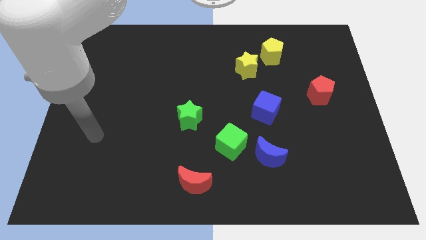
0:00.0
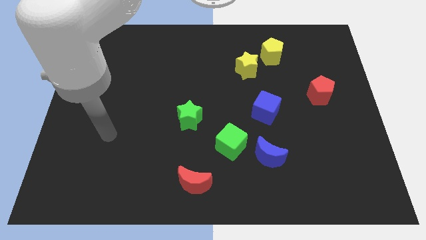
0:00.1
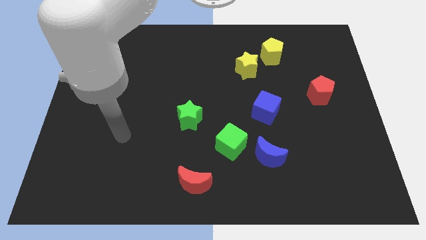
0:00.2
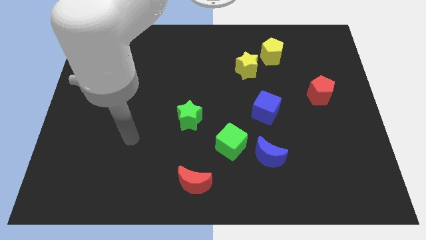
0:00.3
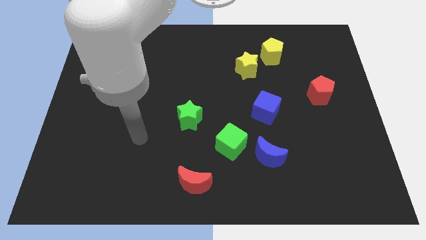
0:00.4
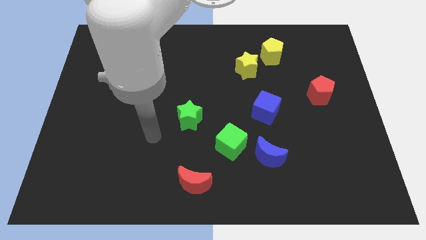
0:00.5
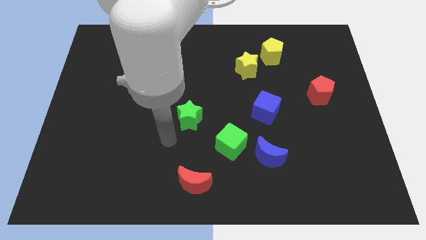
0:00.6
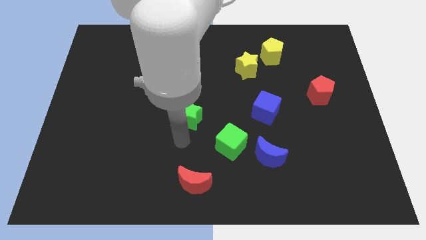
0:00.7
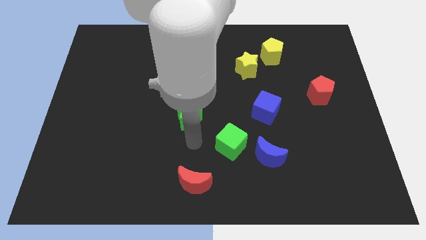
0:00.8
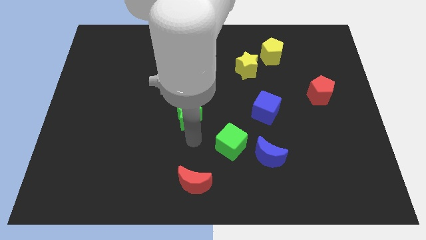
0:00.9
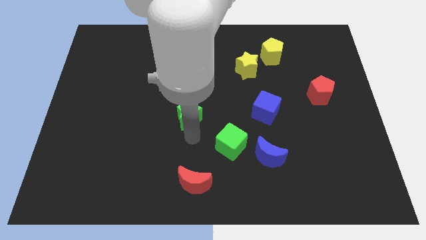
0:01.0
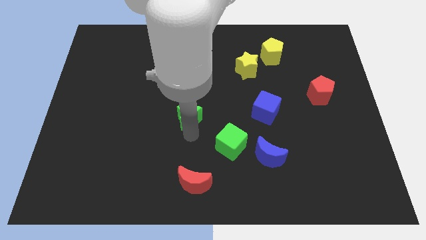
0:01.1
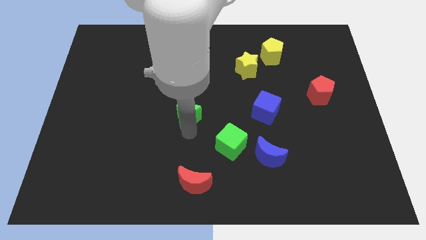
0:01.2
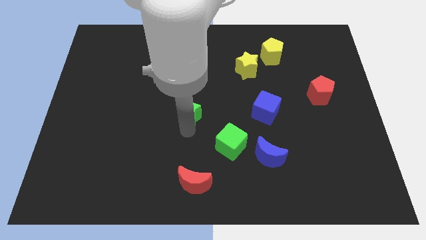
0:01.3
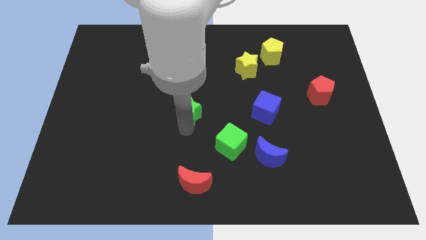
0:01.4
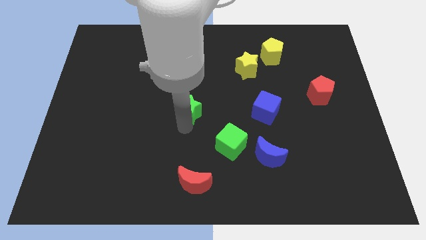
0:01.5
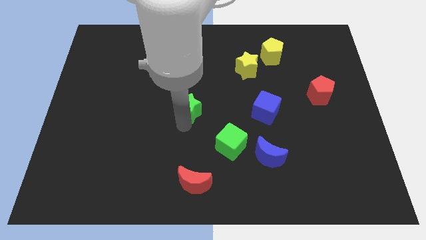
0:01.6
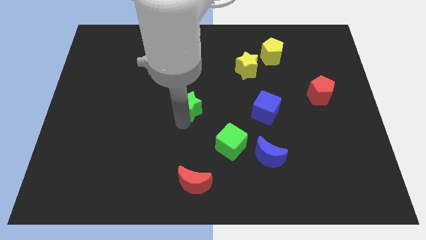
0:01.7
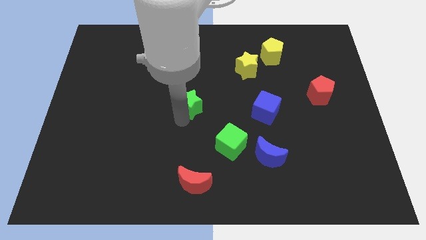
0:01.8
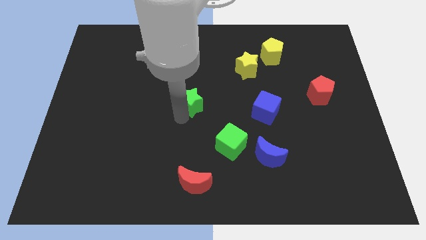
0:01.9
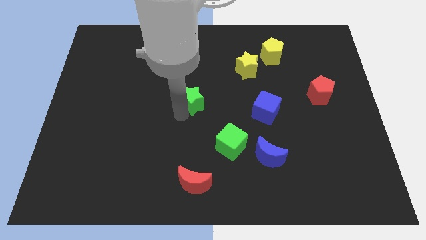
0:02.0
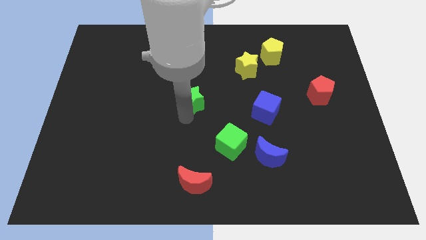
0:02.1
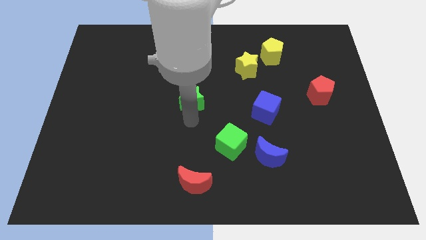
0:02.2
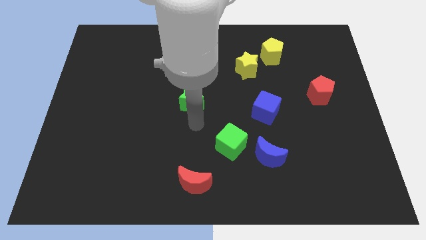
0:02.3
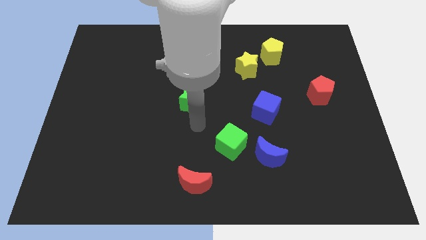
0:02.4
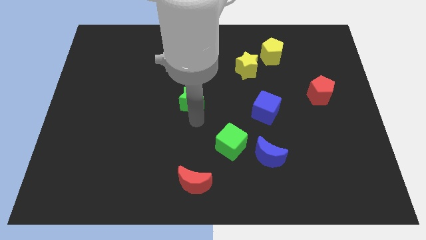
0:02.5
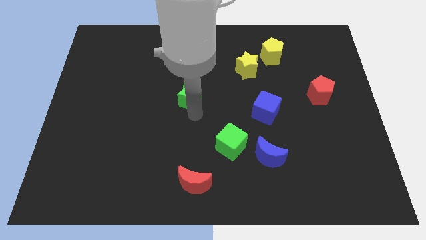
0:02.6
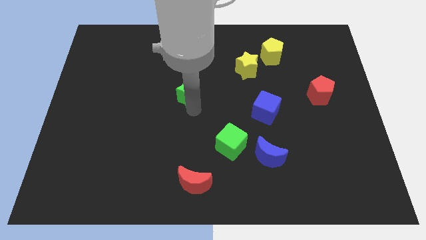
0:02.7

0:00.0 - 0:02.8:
slide the green star upwards slightly

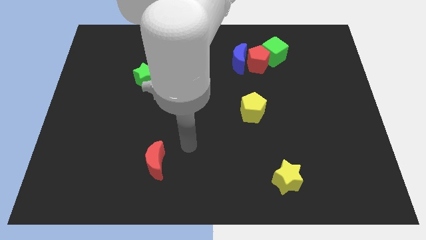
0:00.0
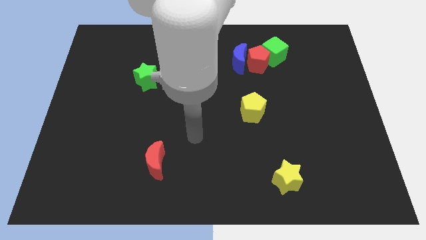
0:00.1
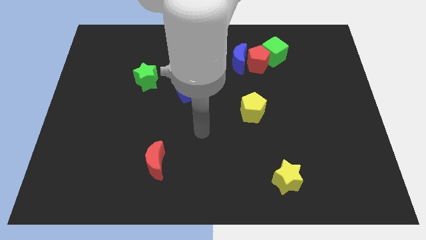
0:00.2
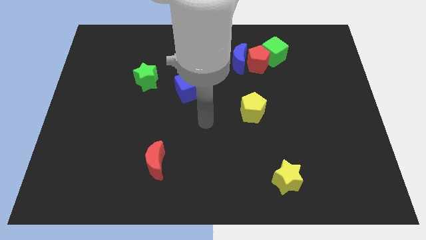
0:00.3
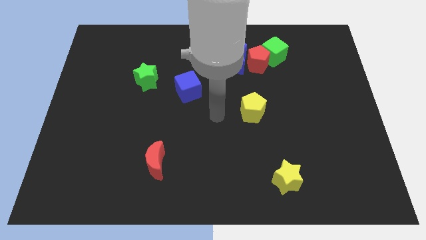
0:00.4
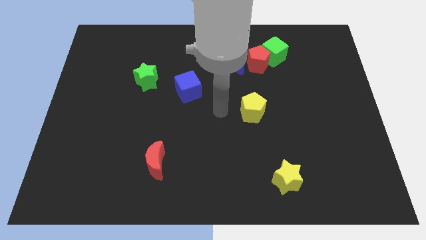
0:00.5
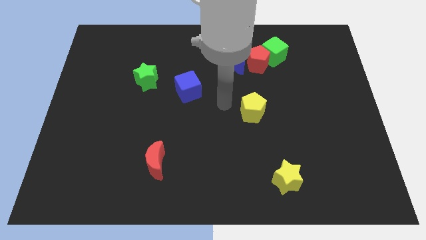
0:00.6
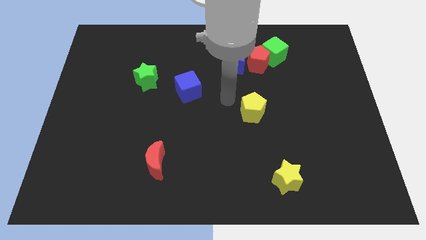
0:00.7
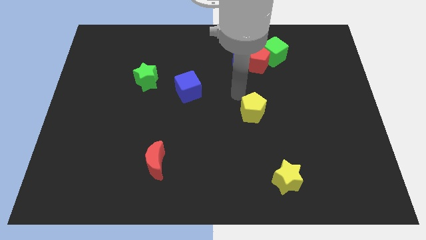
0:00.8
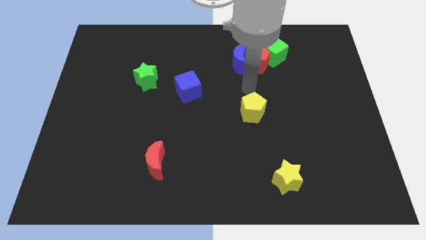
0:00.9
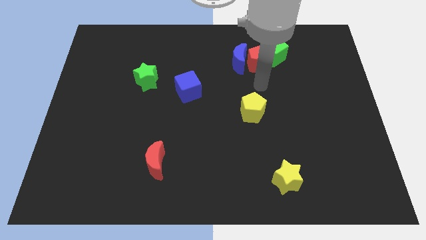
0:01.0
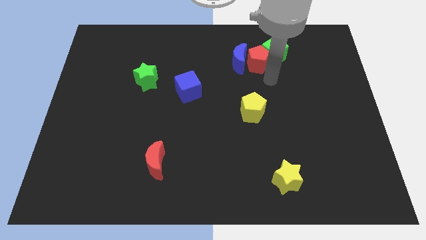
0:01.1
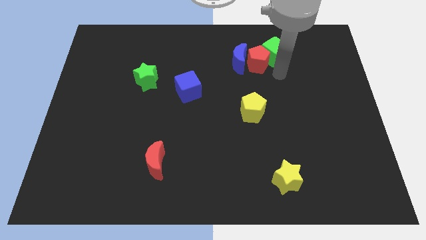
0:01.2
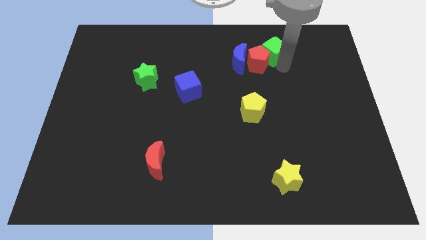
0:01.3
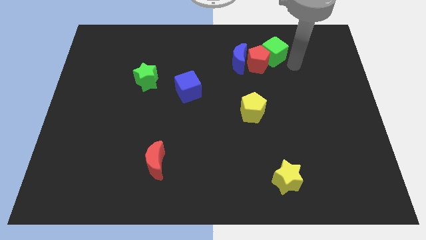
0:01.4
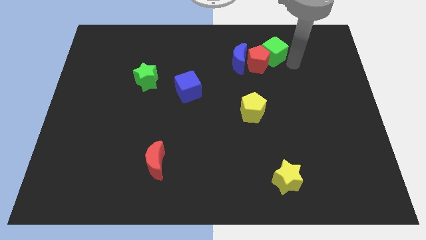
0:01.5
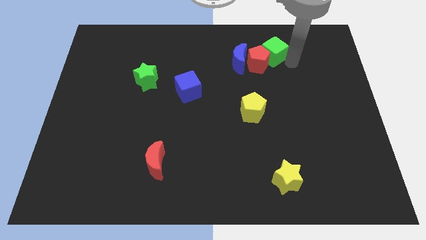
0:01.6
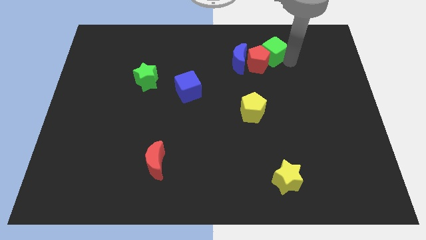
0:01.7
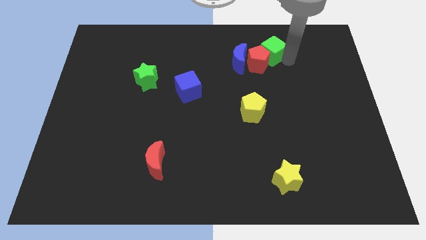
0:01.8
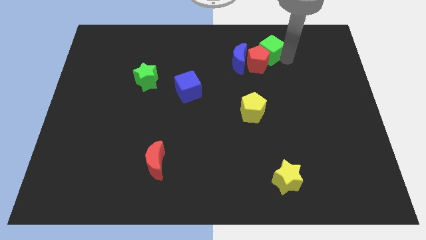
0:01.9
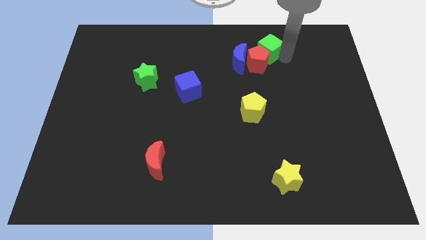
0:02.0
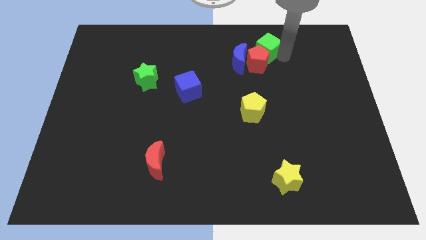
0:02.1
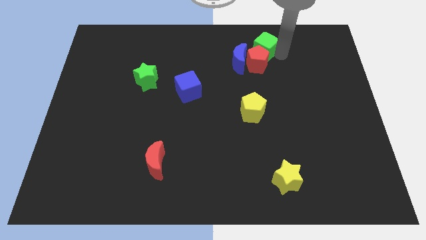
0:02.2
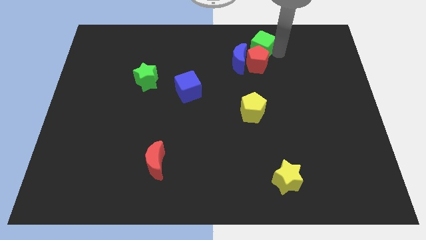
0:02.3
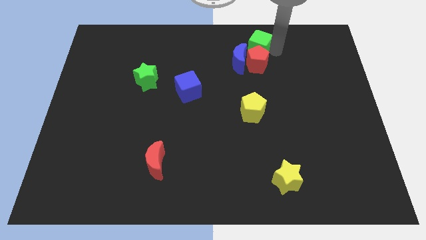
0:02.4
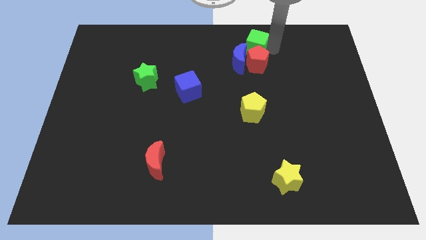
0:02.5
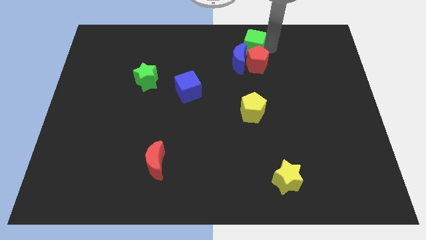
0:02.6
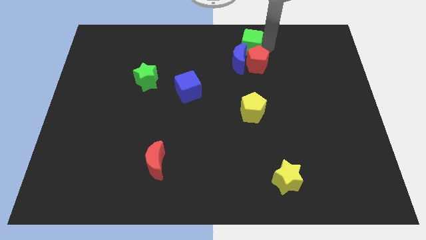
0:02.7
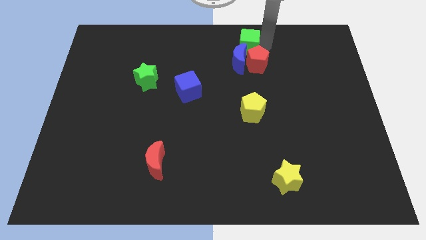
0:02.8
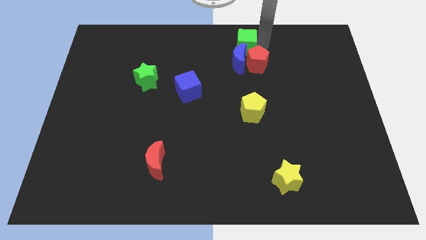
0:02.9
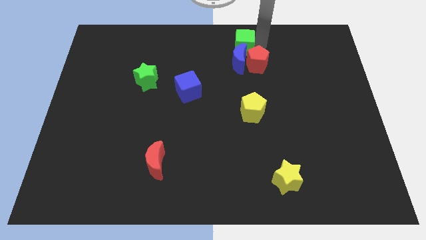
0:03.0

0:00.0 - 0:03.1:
slightly move the green cube to the left

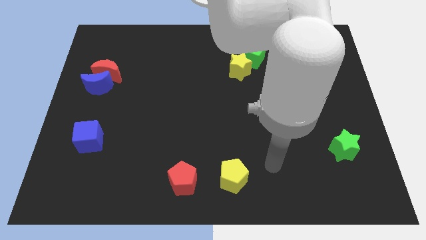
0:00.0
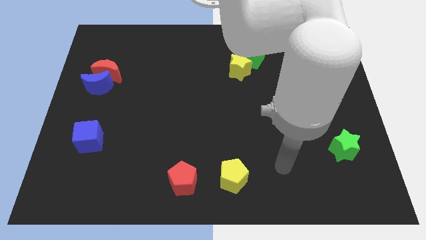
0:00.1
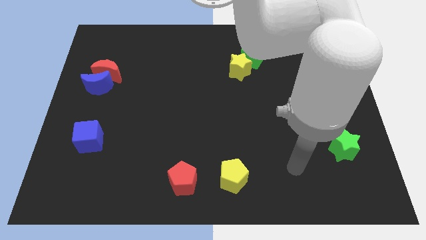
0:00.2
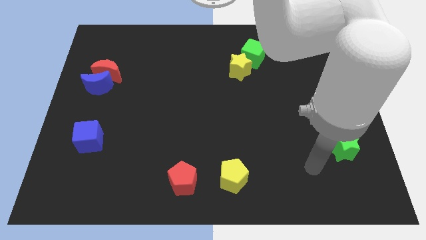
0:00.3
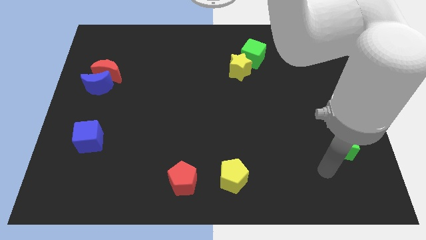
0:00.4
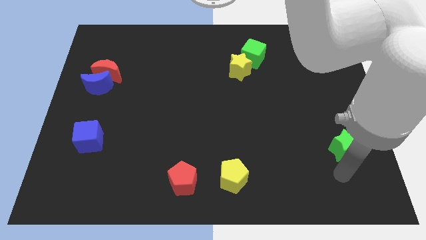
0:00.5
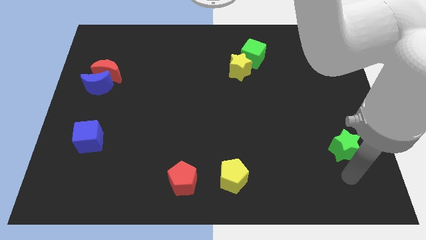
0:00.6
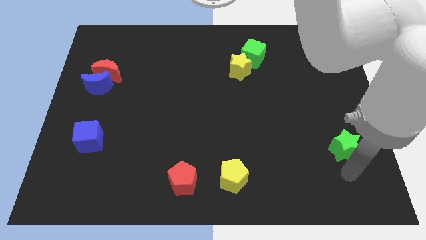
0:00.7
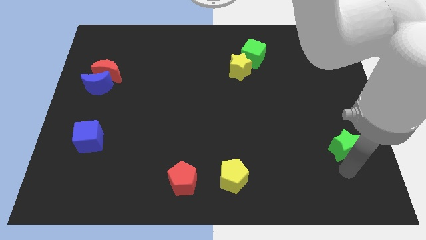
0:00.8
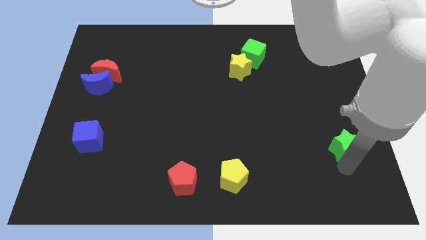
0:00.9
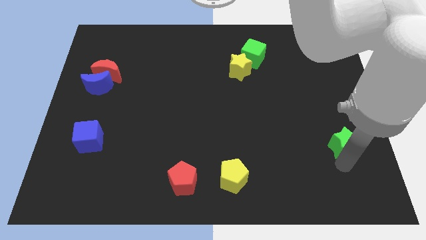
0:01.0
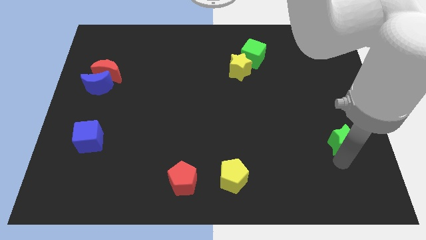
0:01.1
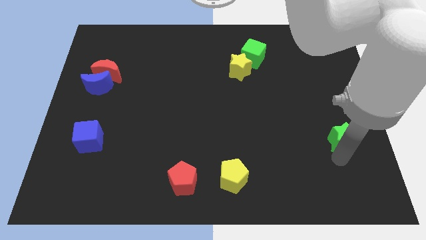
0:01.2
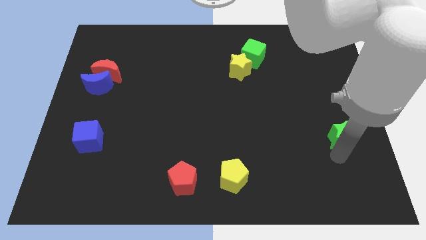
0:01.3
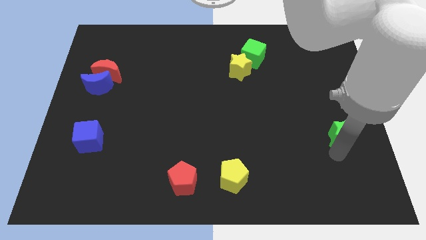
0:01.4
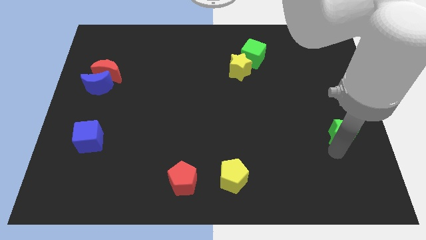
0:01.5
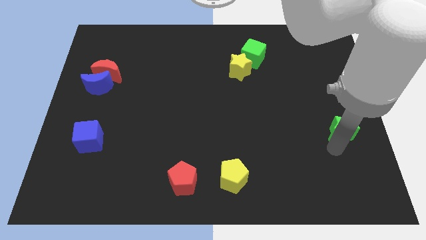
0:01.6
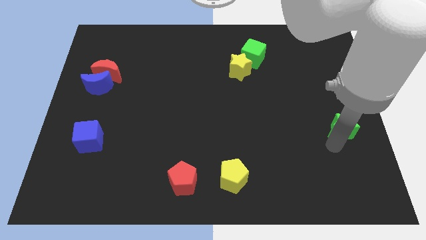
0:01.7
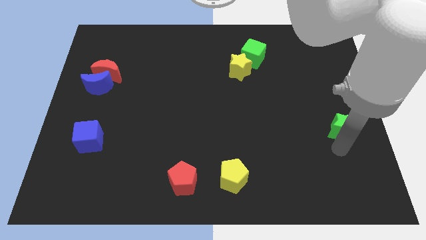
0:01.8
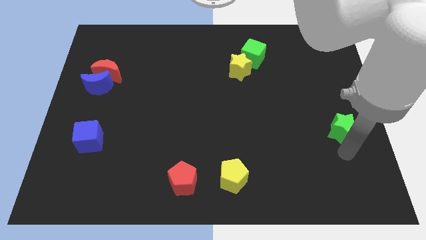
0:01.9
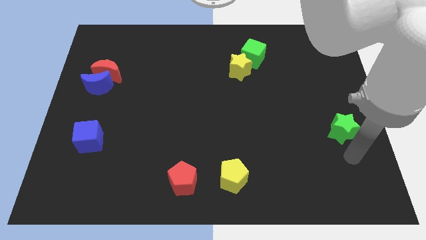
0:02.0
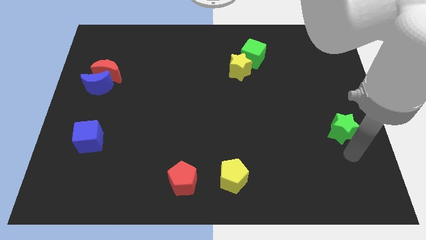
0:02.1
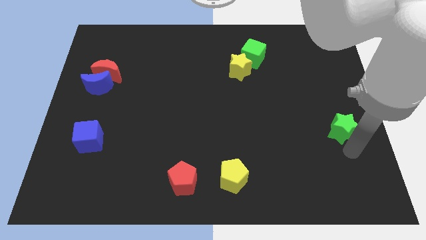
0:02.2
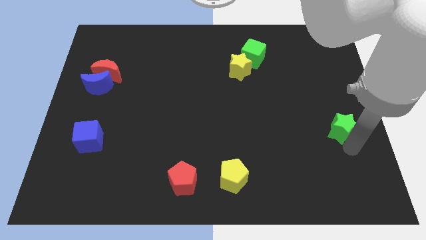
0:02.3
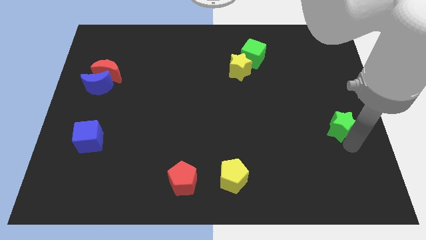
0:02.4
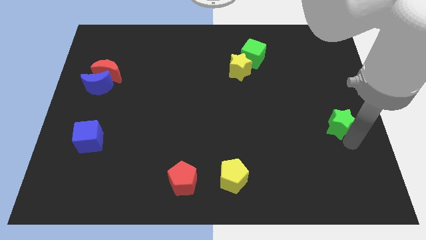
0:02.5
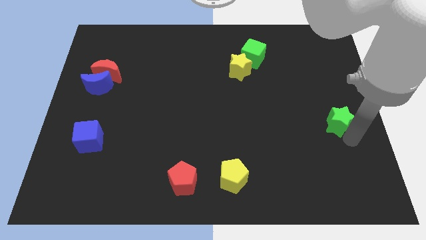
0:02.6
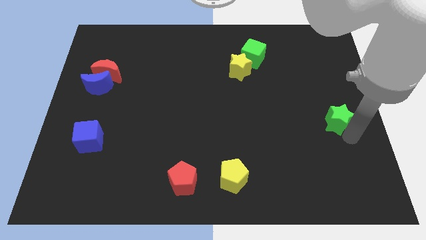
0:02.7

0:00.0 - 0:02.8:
slightly move the green star up
